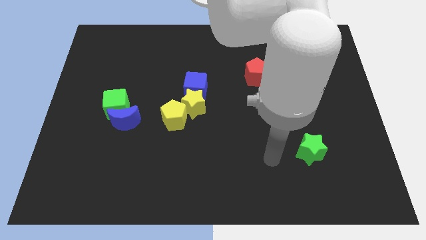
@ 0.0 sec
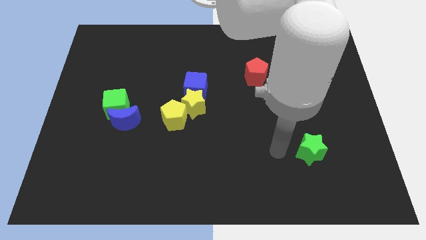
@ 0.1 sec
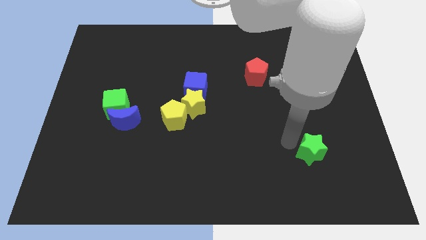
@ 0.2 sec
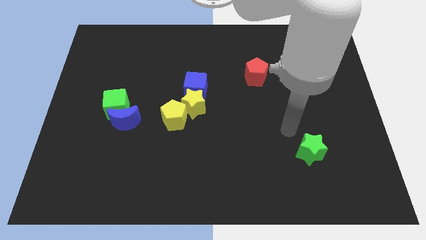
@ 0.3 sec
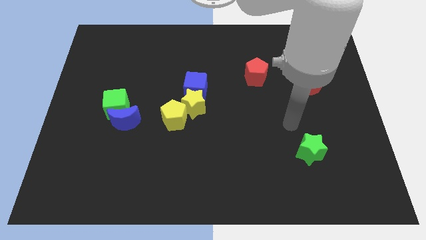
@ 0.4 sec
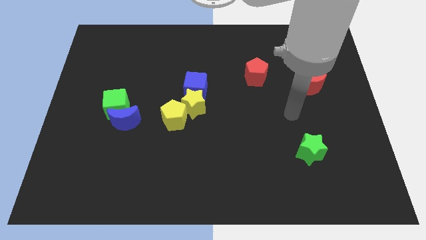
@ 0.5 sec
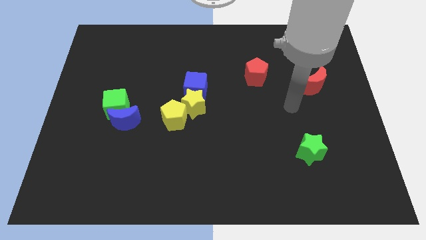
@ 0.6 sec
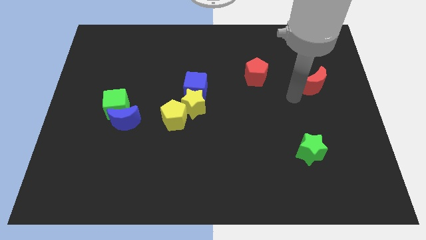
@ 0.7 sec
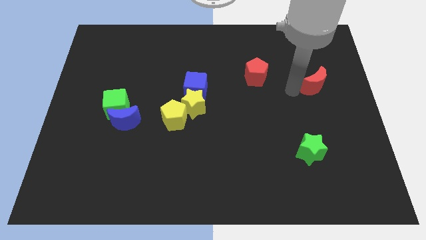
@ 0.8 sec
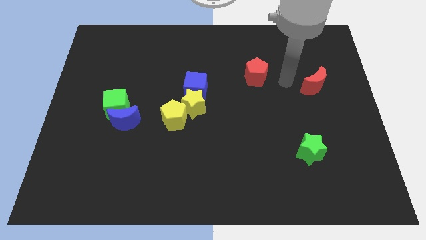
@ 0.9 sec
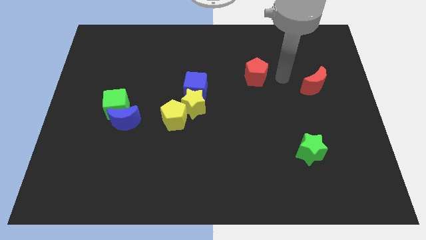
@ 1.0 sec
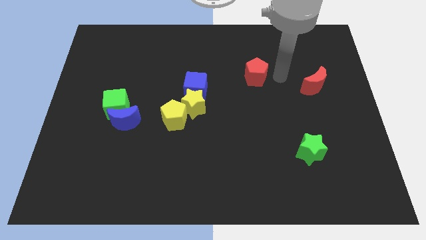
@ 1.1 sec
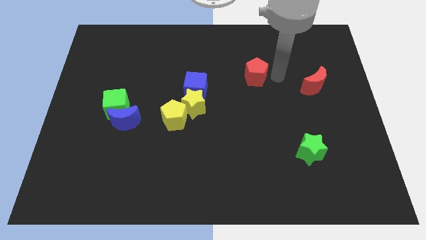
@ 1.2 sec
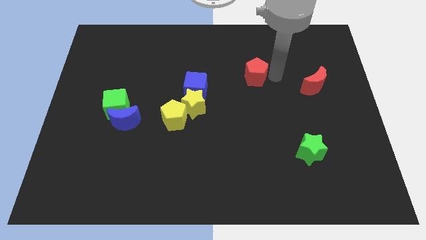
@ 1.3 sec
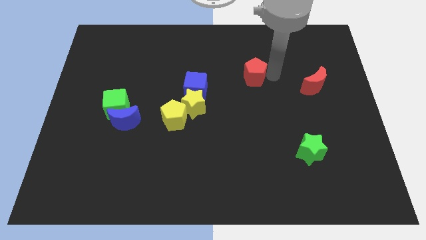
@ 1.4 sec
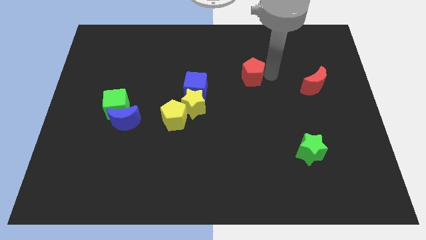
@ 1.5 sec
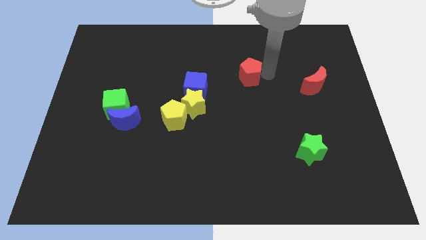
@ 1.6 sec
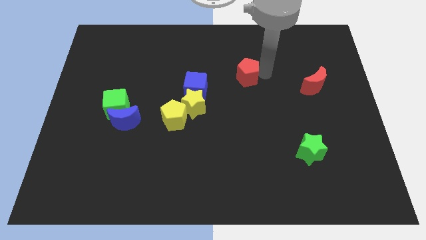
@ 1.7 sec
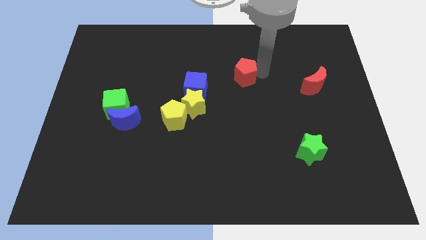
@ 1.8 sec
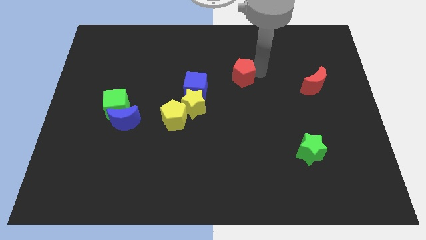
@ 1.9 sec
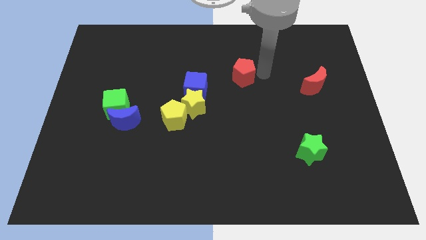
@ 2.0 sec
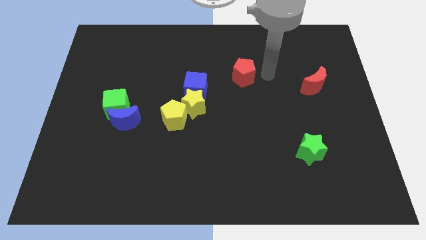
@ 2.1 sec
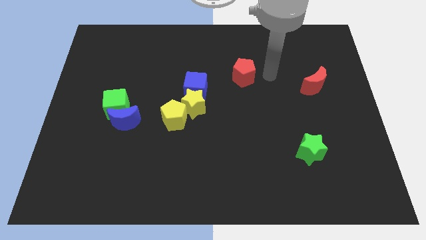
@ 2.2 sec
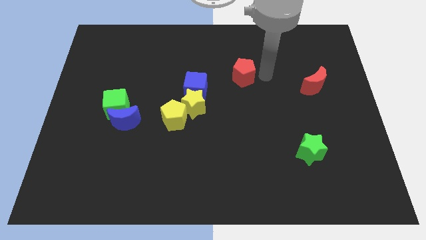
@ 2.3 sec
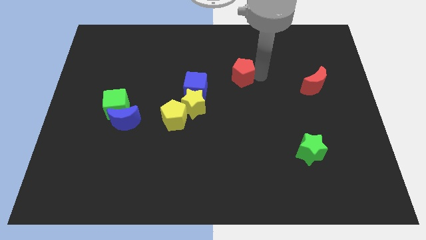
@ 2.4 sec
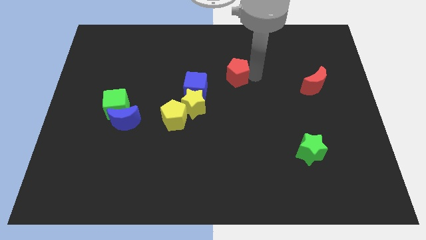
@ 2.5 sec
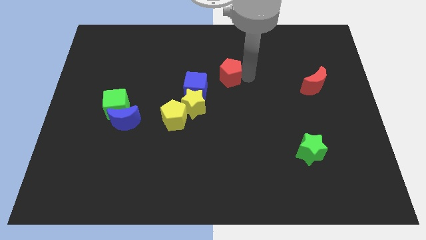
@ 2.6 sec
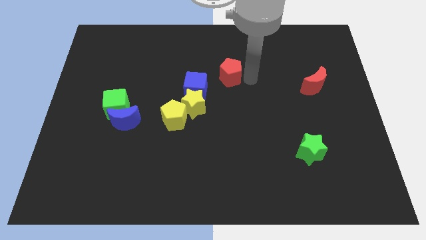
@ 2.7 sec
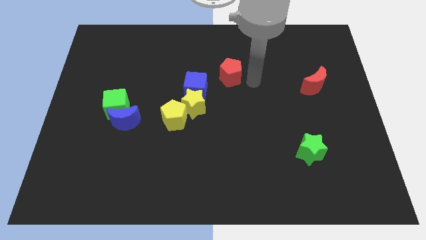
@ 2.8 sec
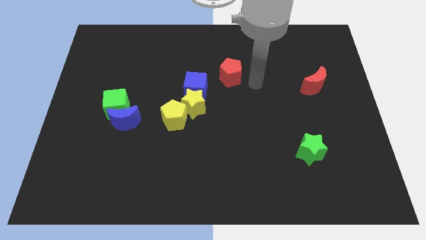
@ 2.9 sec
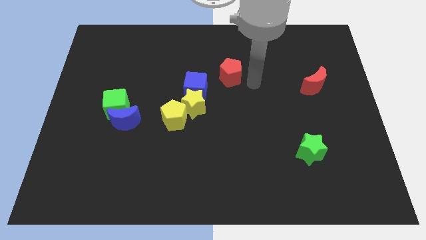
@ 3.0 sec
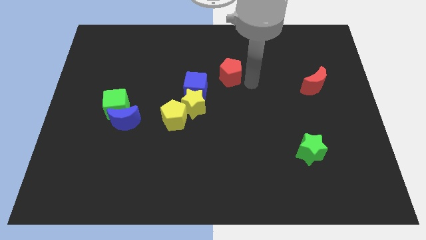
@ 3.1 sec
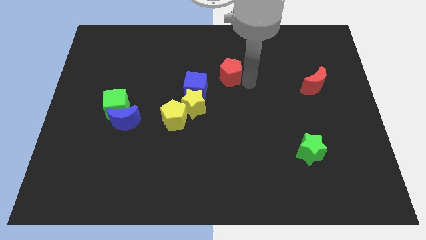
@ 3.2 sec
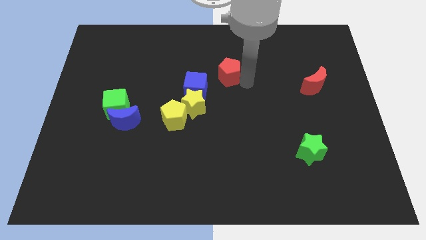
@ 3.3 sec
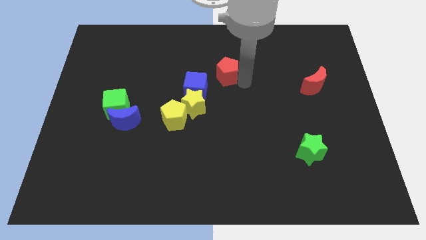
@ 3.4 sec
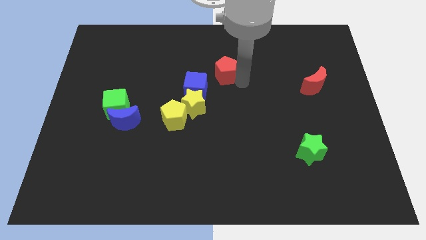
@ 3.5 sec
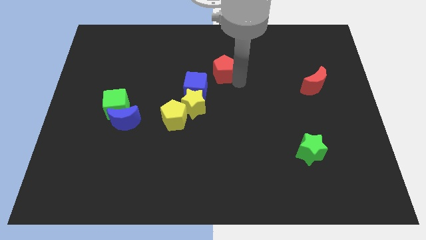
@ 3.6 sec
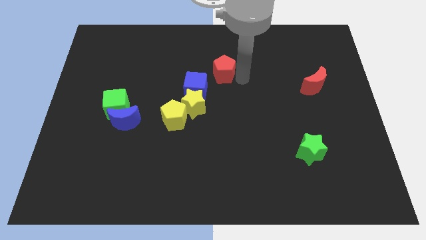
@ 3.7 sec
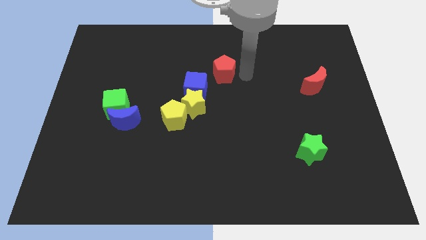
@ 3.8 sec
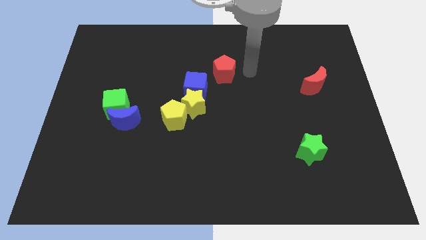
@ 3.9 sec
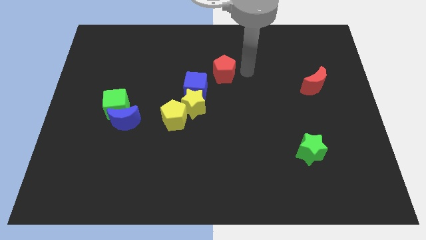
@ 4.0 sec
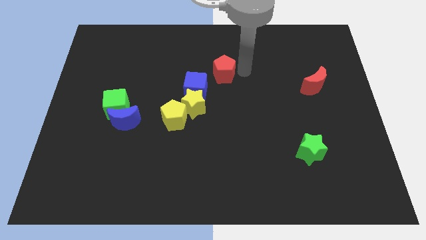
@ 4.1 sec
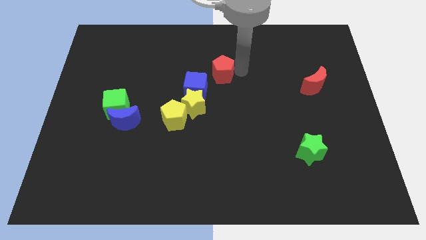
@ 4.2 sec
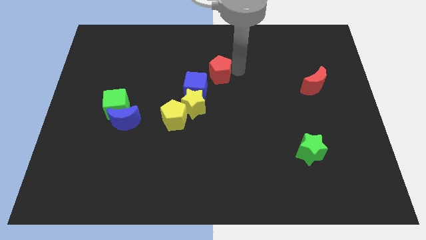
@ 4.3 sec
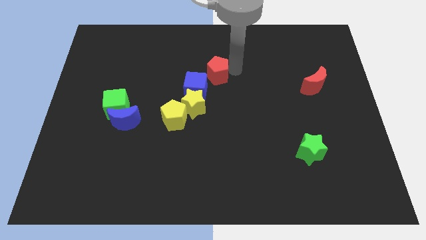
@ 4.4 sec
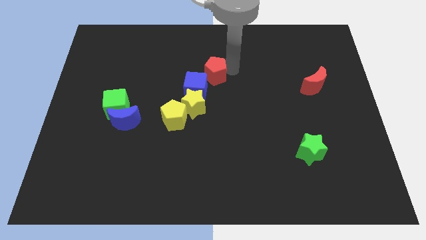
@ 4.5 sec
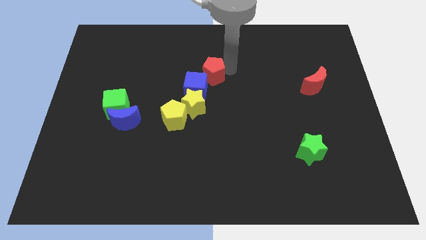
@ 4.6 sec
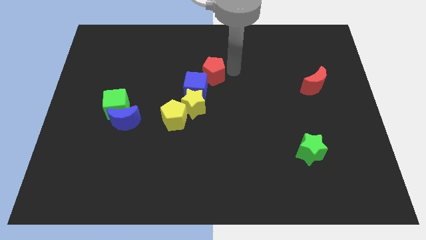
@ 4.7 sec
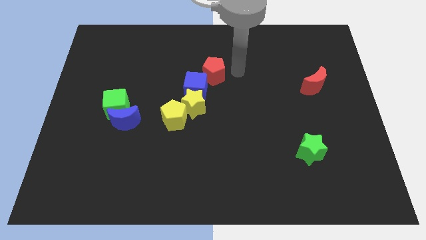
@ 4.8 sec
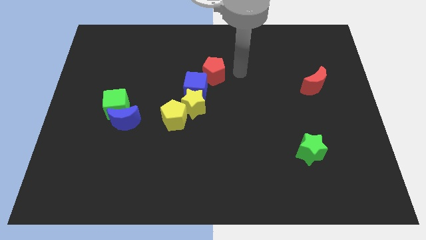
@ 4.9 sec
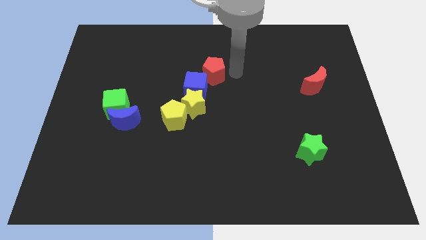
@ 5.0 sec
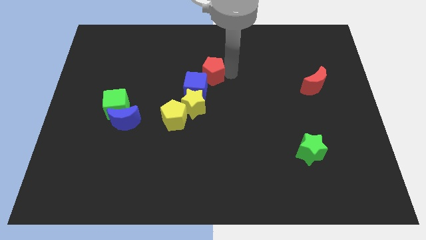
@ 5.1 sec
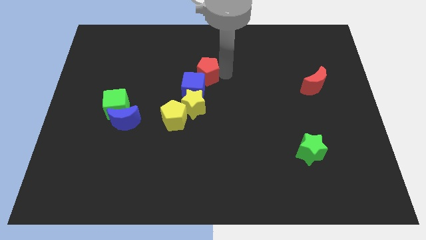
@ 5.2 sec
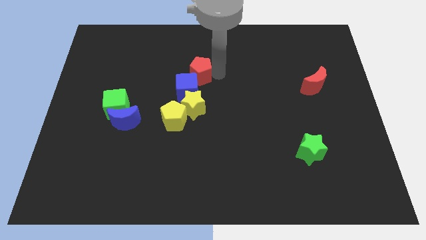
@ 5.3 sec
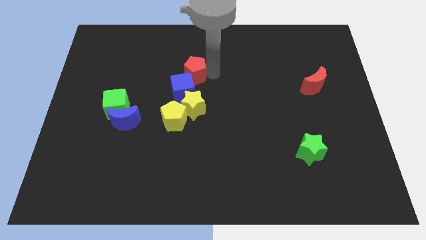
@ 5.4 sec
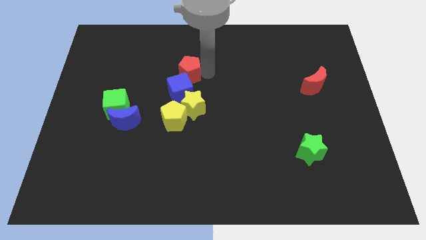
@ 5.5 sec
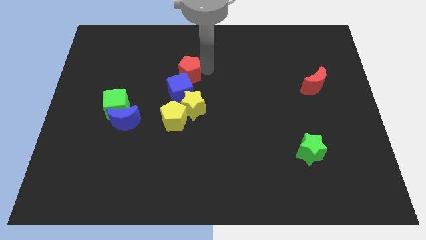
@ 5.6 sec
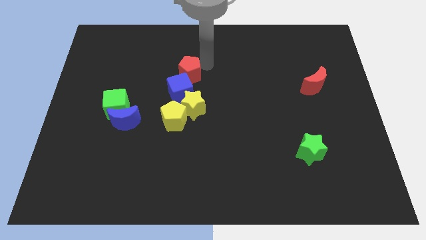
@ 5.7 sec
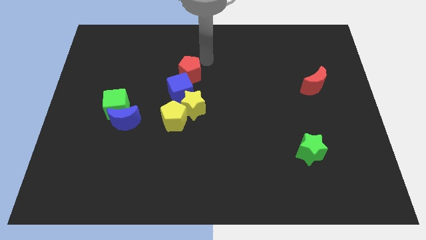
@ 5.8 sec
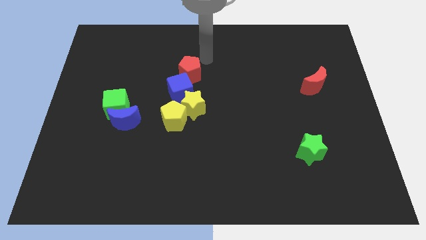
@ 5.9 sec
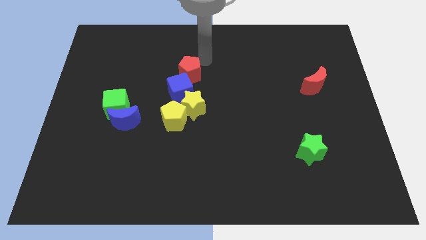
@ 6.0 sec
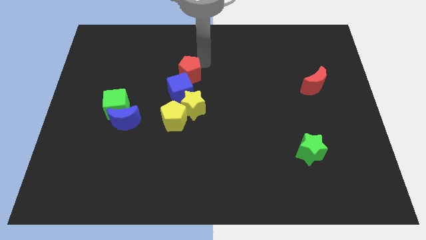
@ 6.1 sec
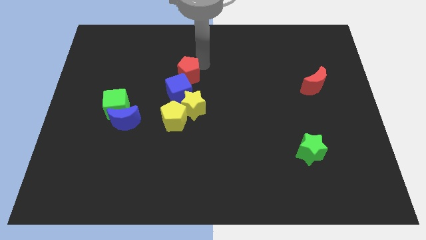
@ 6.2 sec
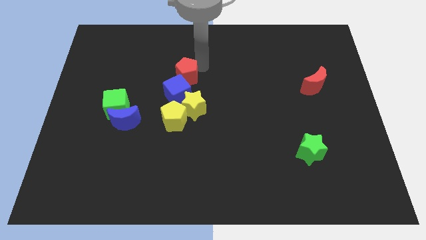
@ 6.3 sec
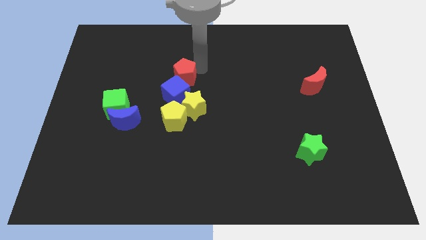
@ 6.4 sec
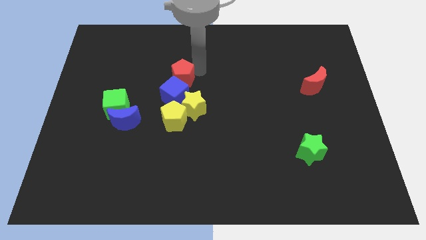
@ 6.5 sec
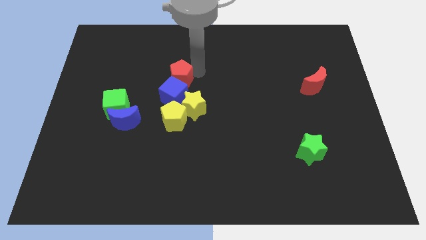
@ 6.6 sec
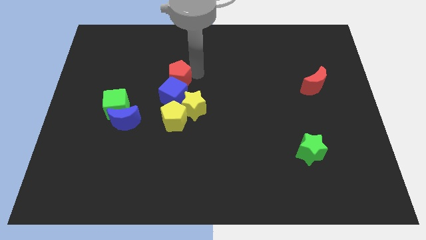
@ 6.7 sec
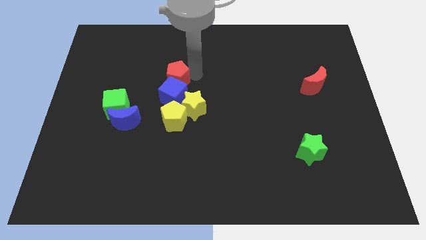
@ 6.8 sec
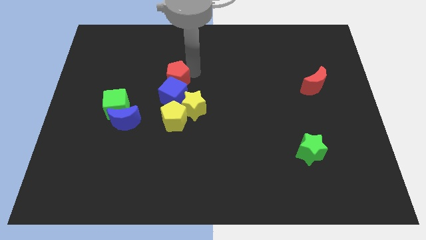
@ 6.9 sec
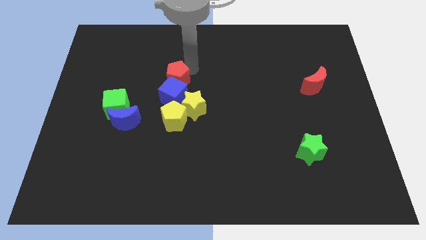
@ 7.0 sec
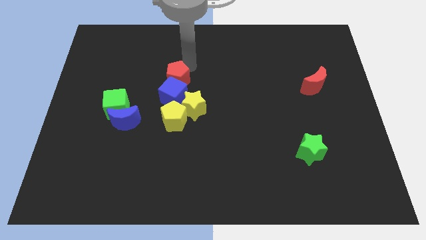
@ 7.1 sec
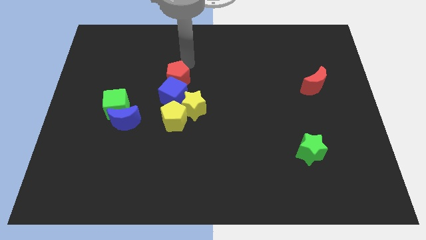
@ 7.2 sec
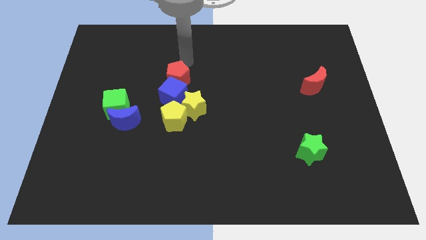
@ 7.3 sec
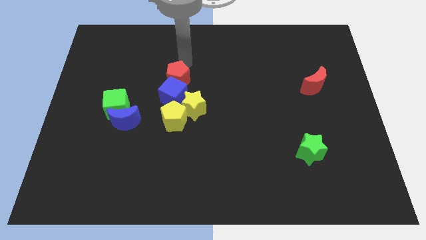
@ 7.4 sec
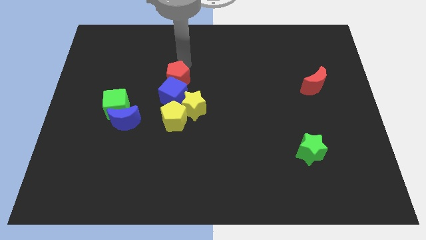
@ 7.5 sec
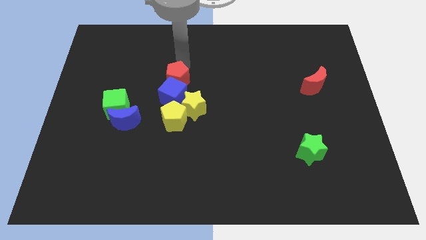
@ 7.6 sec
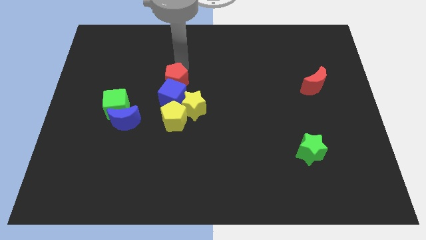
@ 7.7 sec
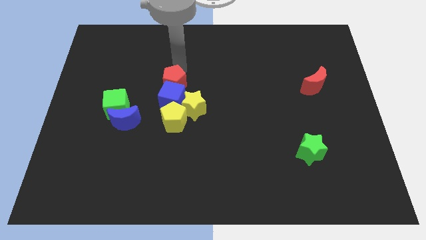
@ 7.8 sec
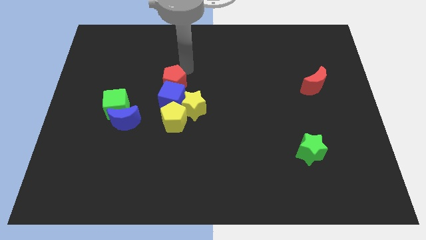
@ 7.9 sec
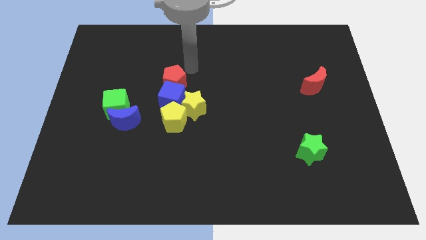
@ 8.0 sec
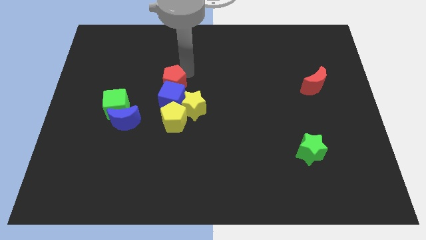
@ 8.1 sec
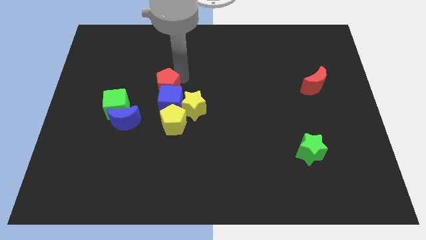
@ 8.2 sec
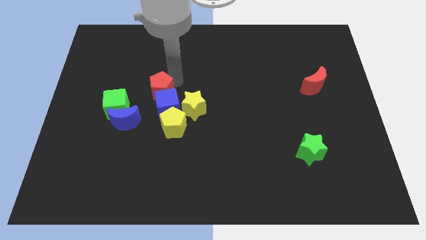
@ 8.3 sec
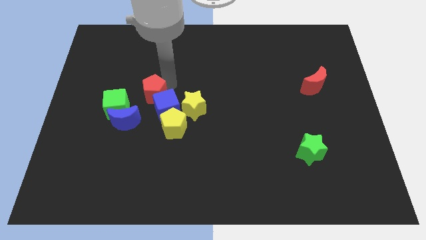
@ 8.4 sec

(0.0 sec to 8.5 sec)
put the red pentagon diagonally up and to the left of the yellow pentagon
